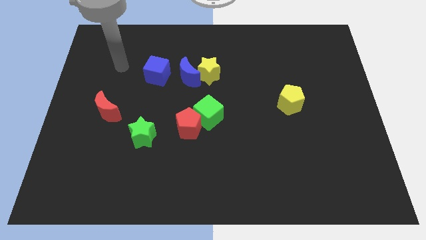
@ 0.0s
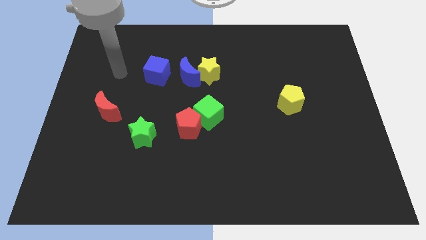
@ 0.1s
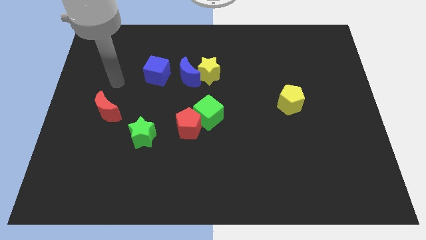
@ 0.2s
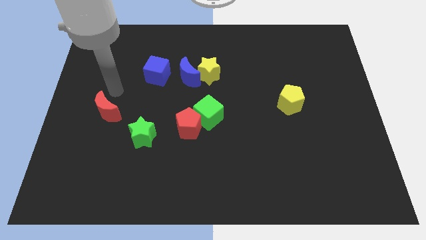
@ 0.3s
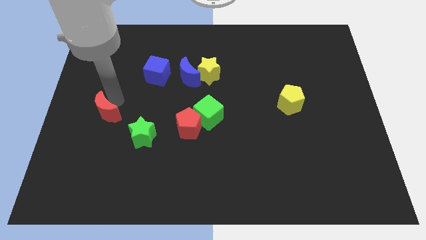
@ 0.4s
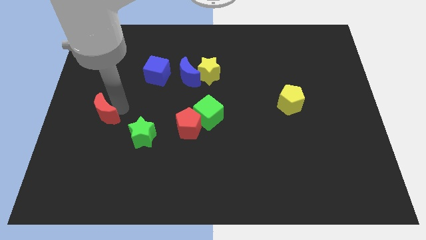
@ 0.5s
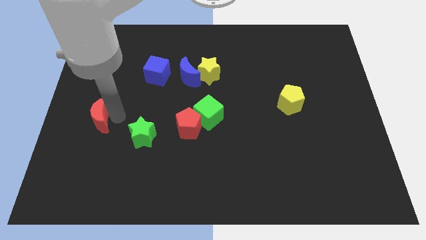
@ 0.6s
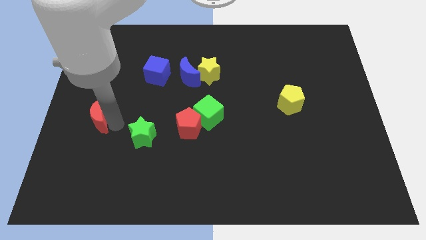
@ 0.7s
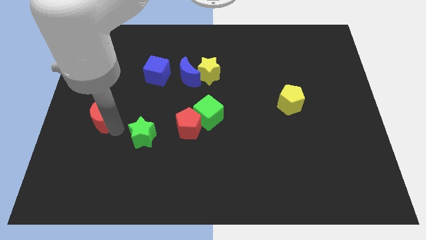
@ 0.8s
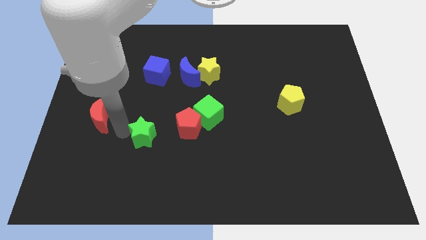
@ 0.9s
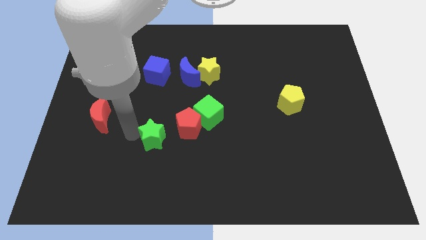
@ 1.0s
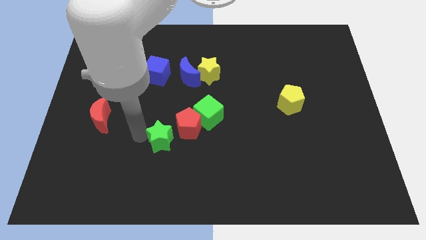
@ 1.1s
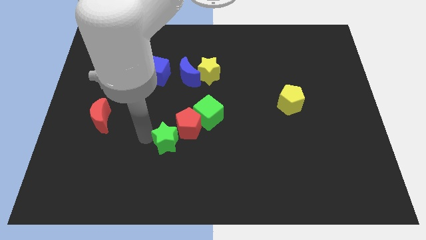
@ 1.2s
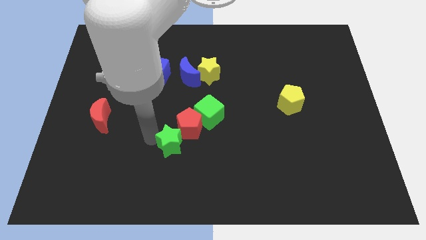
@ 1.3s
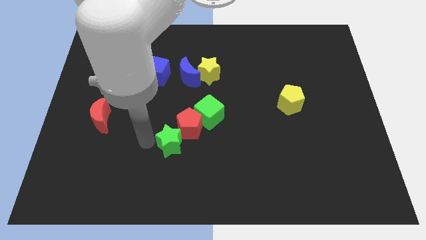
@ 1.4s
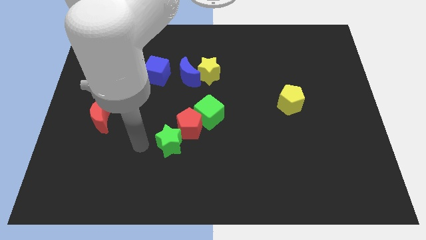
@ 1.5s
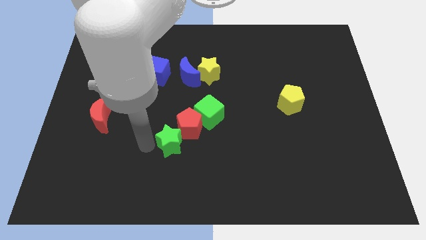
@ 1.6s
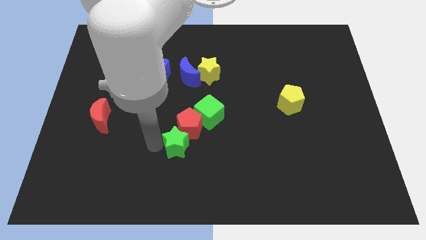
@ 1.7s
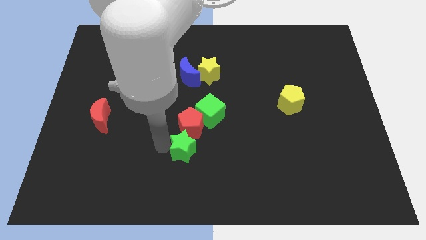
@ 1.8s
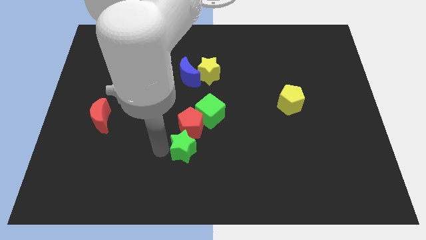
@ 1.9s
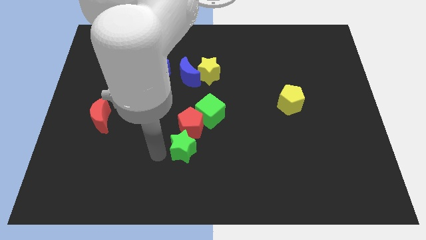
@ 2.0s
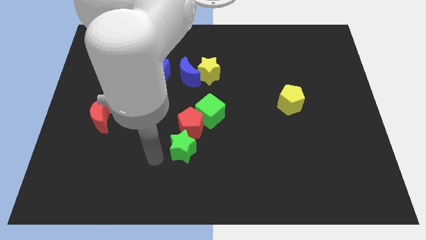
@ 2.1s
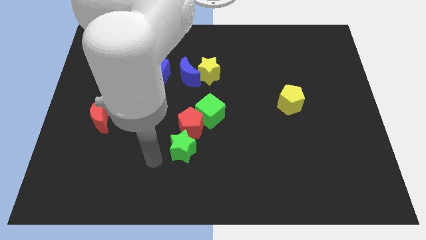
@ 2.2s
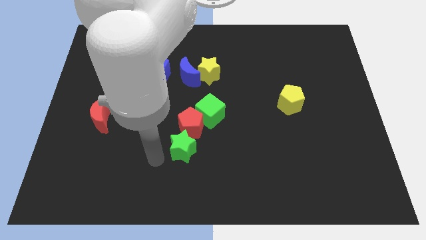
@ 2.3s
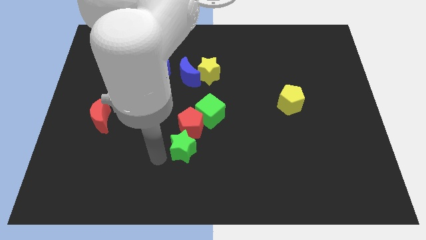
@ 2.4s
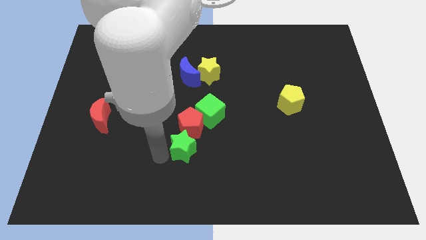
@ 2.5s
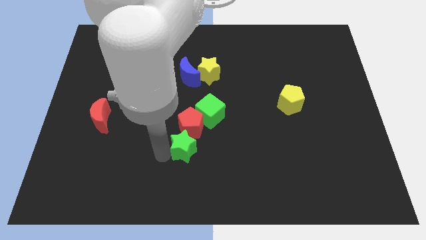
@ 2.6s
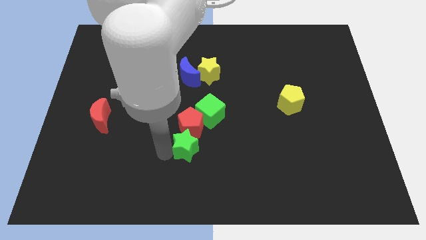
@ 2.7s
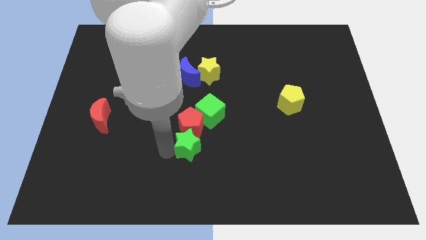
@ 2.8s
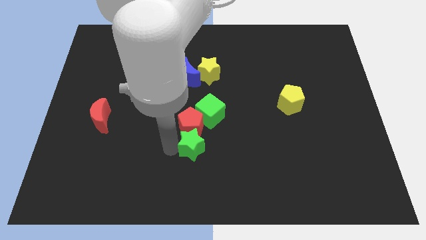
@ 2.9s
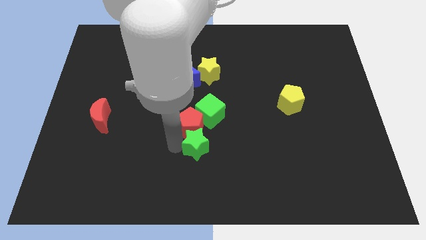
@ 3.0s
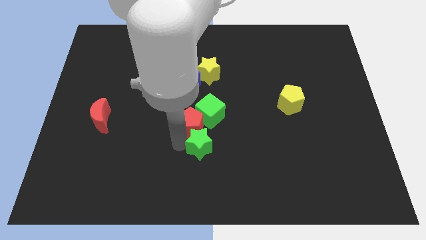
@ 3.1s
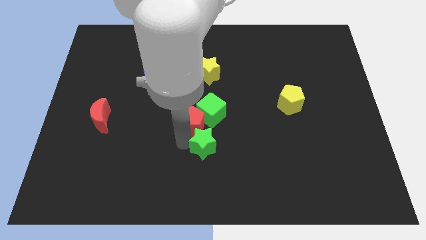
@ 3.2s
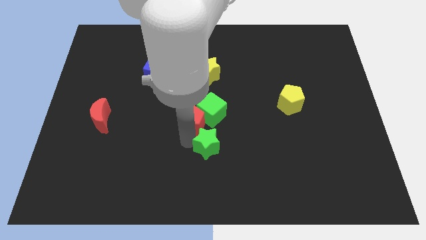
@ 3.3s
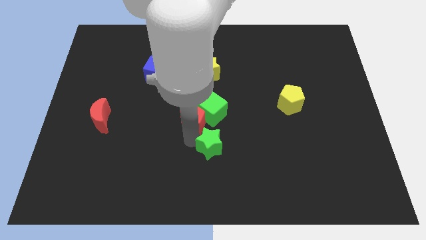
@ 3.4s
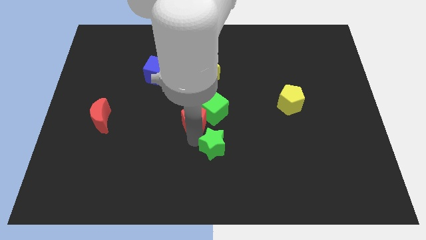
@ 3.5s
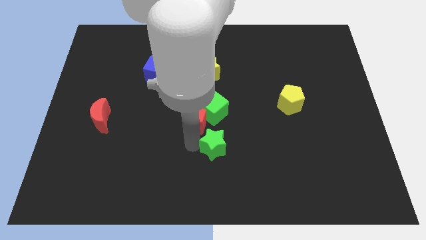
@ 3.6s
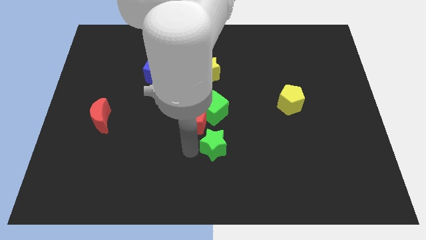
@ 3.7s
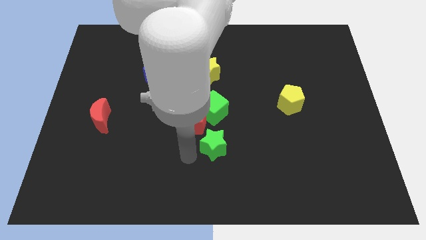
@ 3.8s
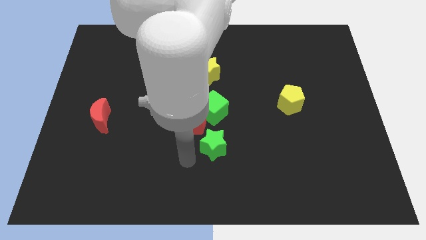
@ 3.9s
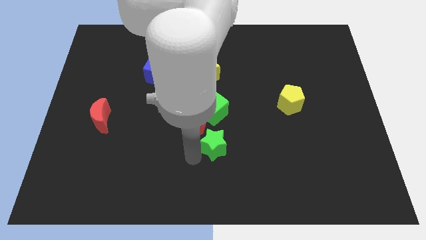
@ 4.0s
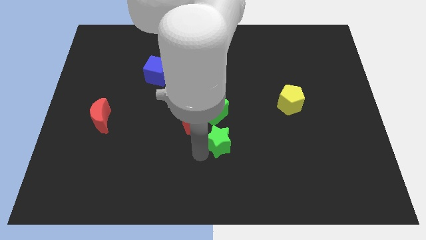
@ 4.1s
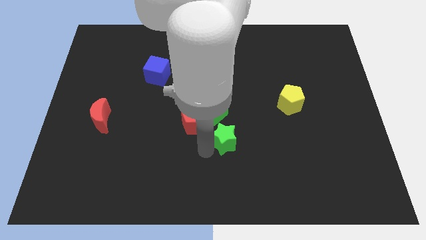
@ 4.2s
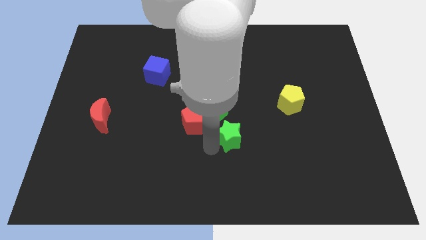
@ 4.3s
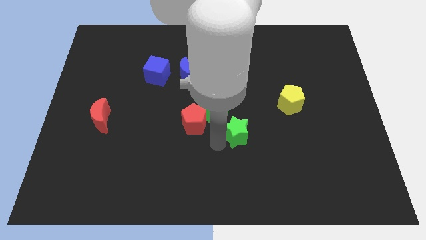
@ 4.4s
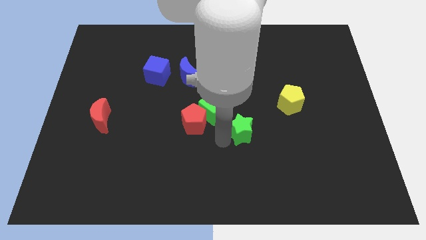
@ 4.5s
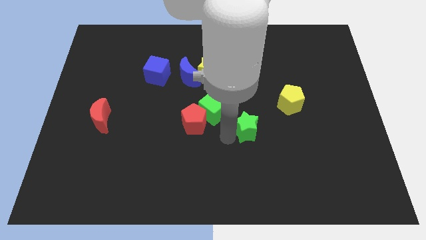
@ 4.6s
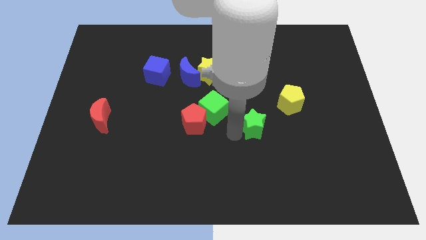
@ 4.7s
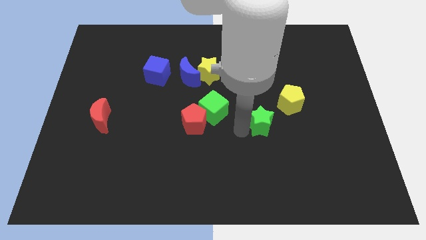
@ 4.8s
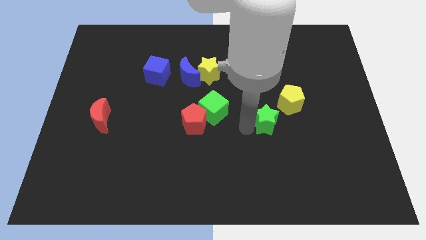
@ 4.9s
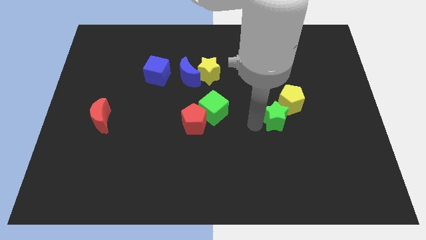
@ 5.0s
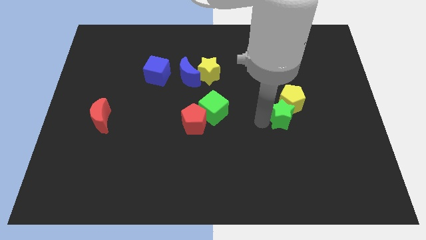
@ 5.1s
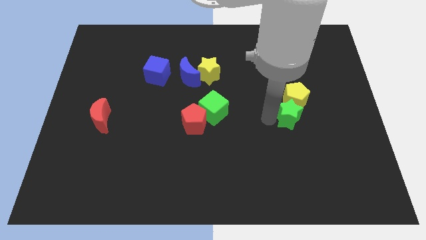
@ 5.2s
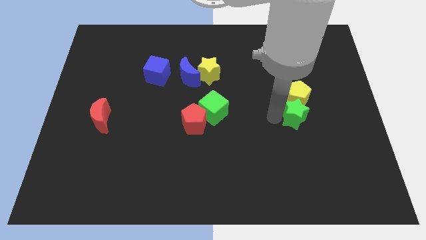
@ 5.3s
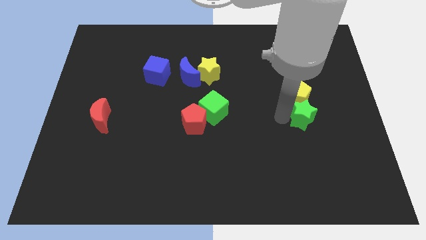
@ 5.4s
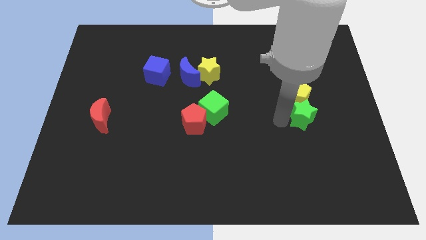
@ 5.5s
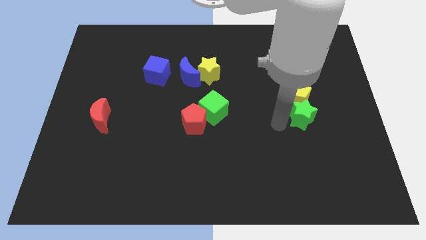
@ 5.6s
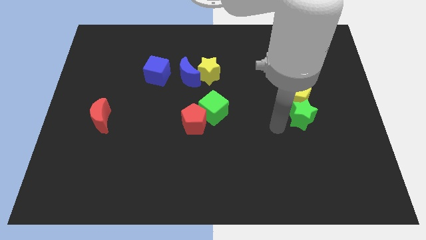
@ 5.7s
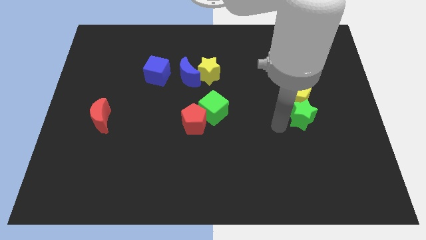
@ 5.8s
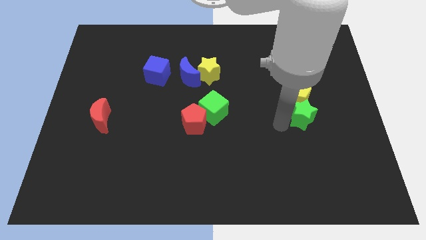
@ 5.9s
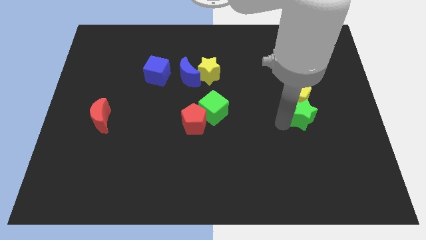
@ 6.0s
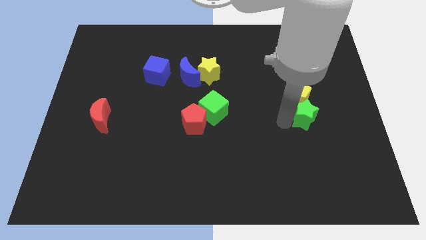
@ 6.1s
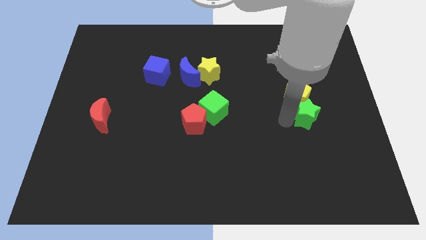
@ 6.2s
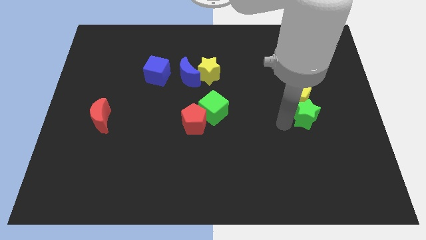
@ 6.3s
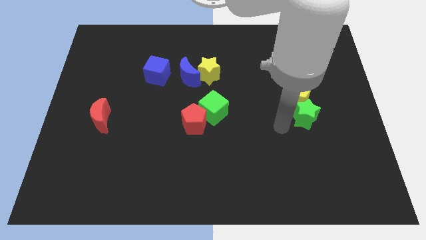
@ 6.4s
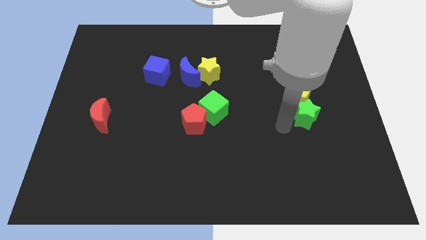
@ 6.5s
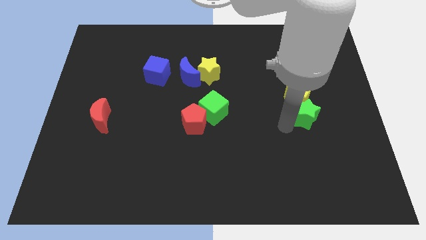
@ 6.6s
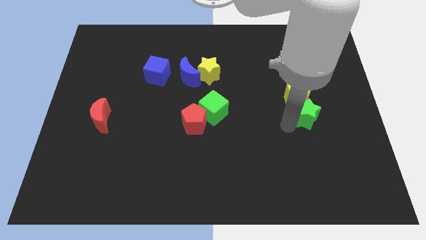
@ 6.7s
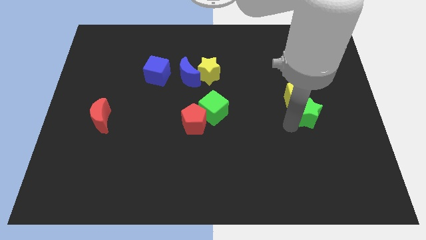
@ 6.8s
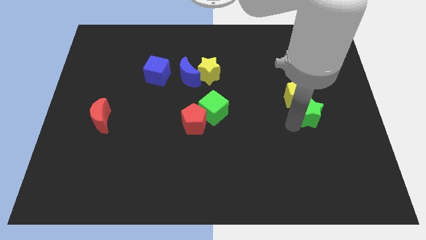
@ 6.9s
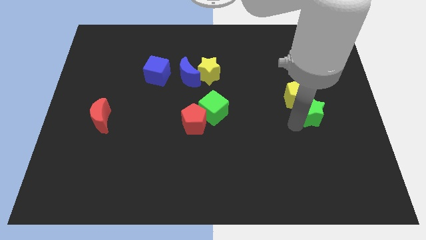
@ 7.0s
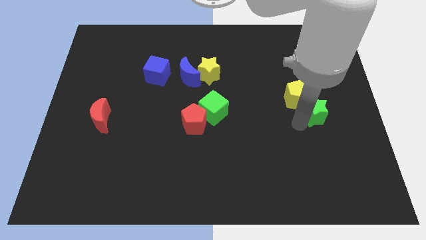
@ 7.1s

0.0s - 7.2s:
slide the green star just right of the yellow pentagon

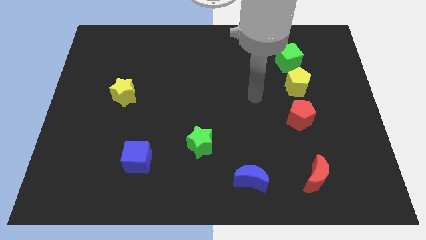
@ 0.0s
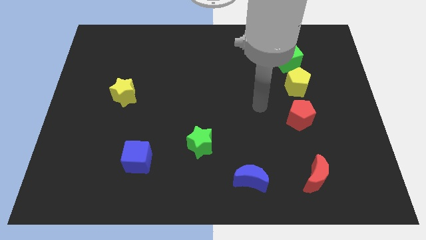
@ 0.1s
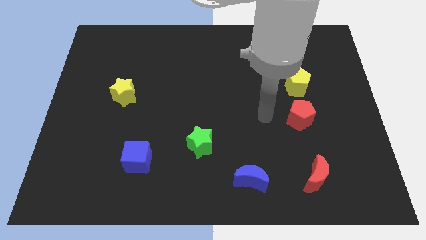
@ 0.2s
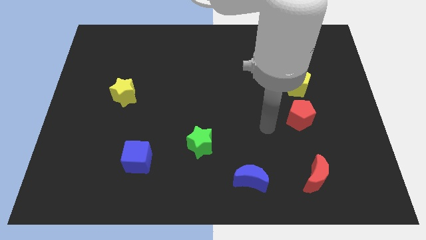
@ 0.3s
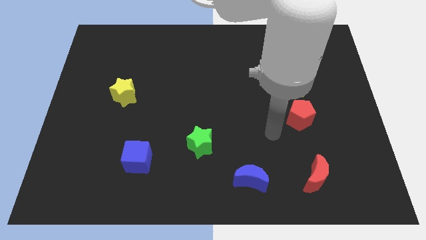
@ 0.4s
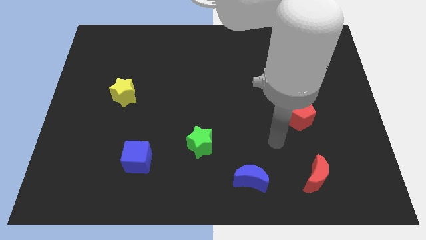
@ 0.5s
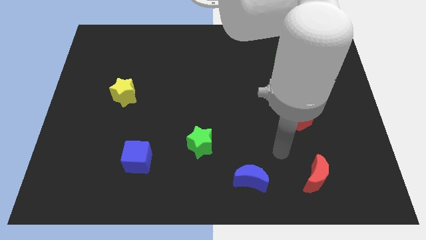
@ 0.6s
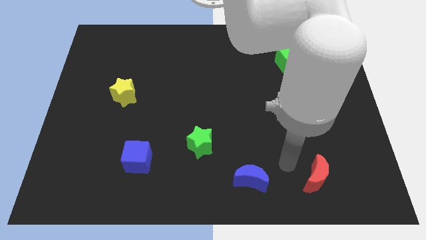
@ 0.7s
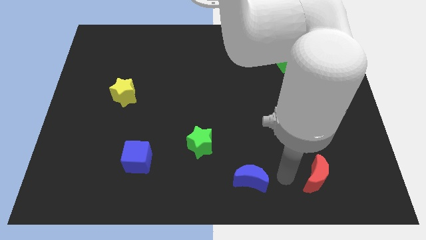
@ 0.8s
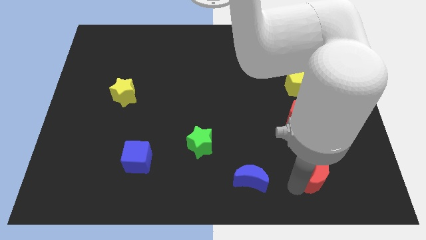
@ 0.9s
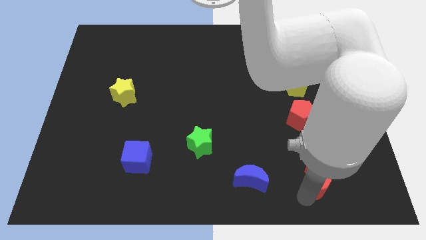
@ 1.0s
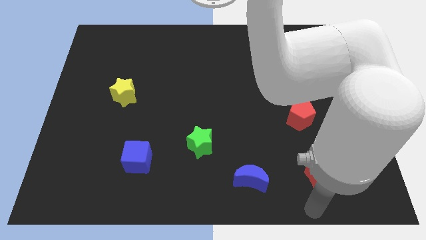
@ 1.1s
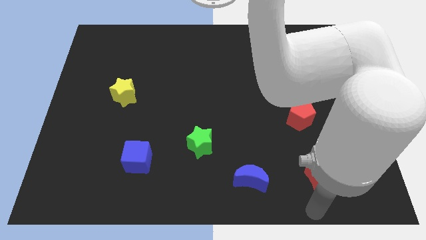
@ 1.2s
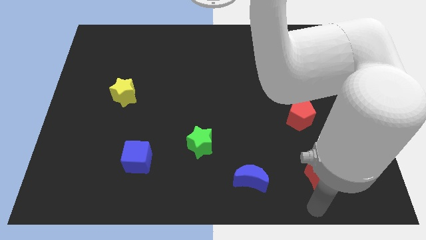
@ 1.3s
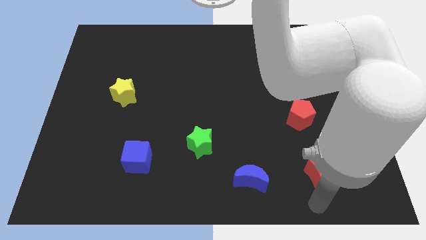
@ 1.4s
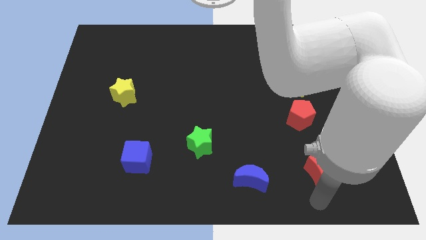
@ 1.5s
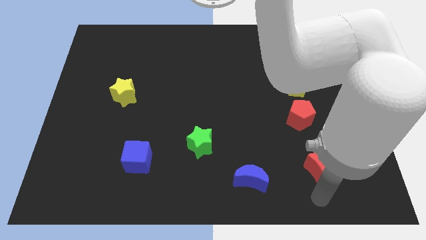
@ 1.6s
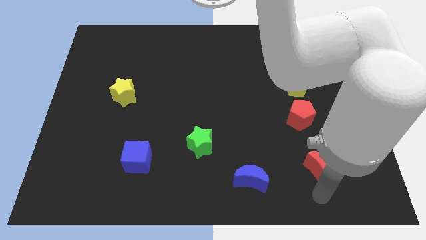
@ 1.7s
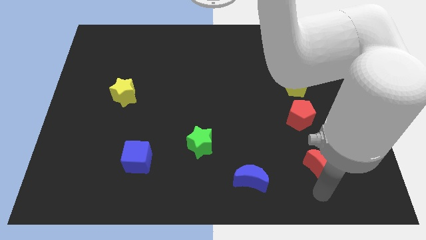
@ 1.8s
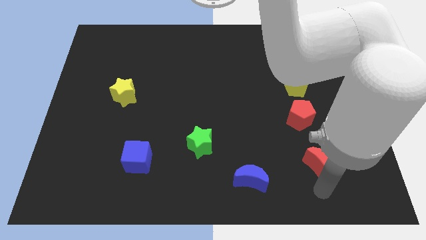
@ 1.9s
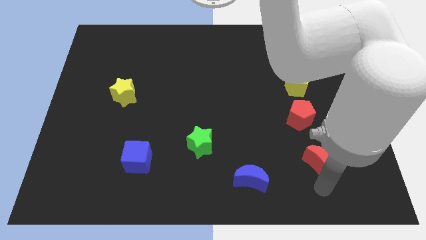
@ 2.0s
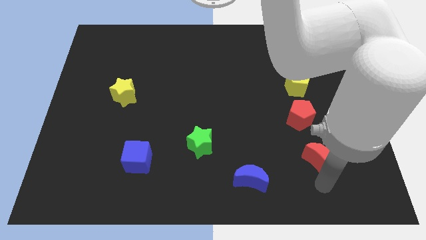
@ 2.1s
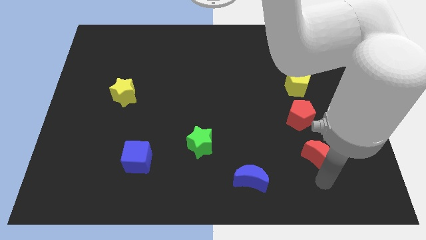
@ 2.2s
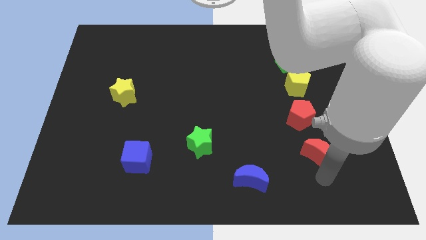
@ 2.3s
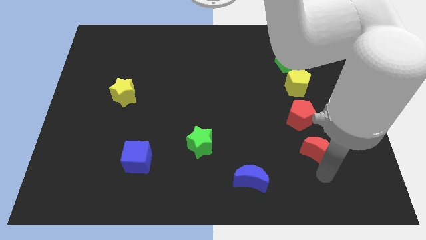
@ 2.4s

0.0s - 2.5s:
push the red moon to the bottom right of the red pentagon
